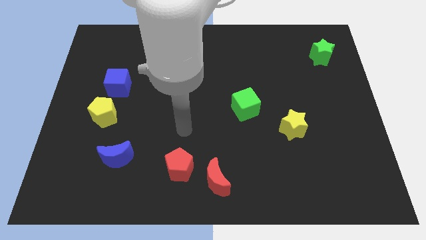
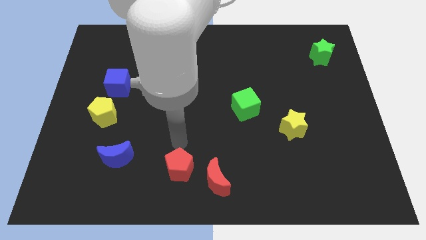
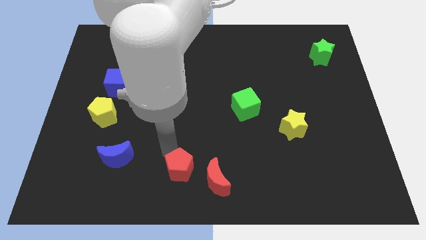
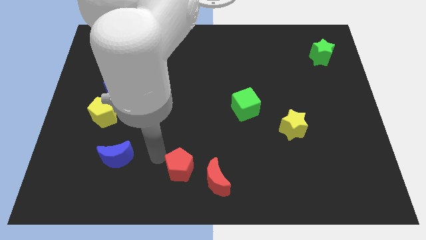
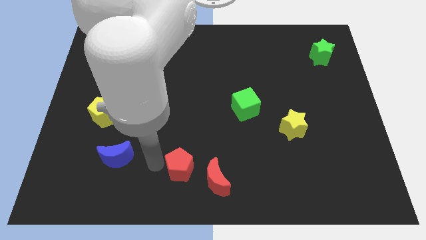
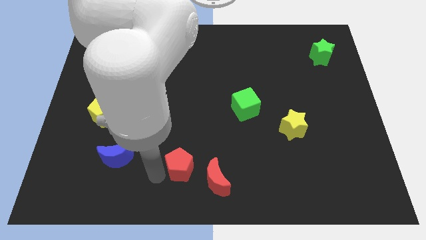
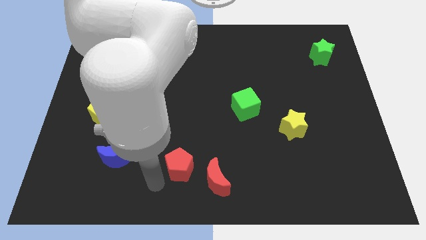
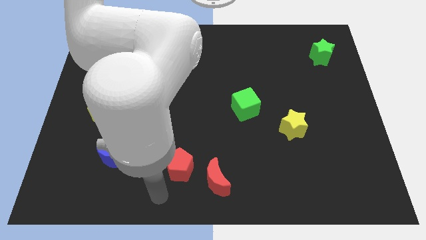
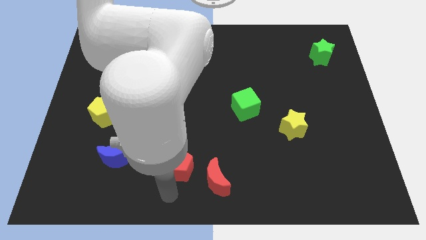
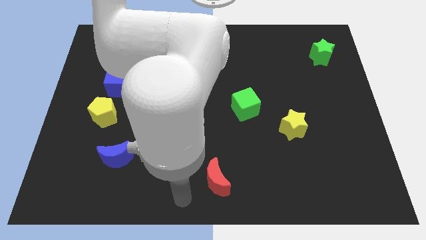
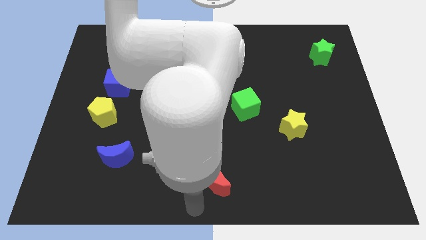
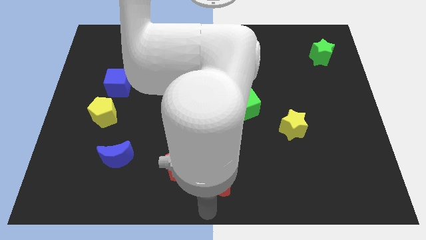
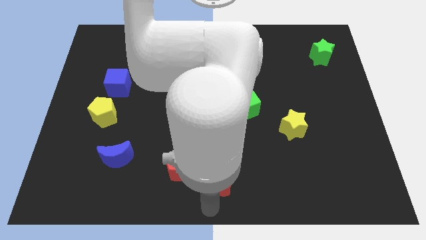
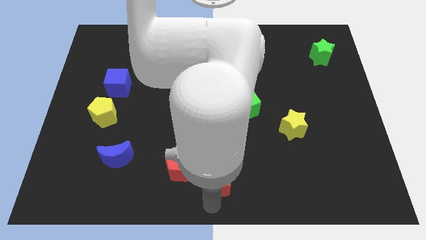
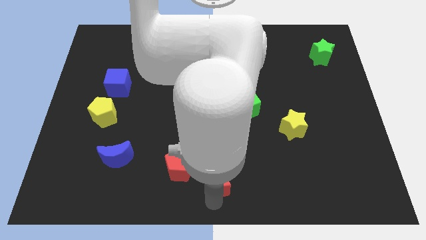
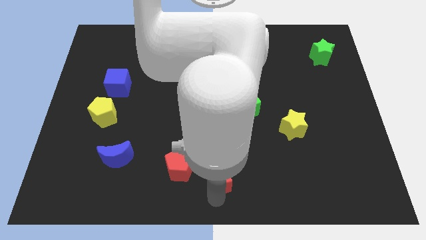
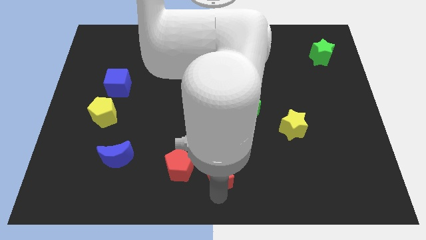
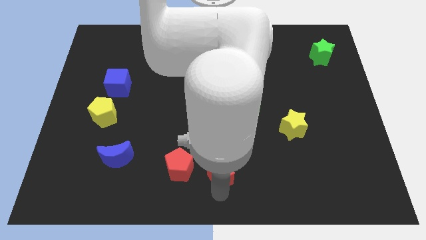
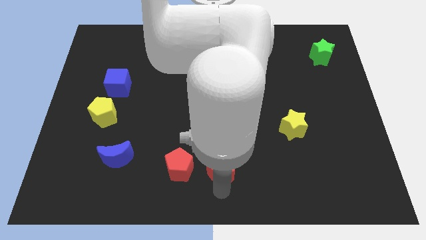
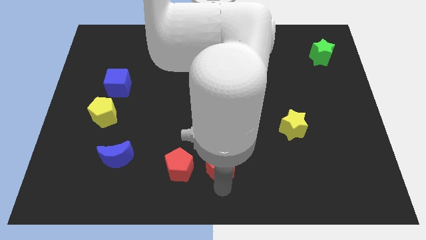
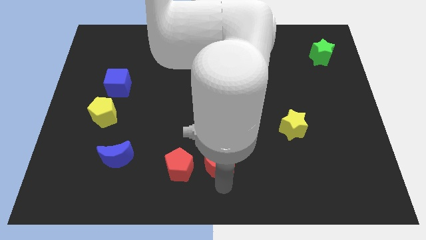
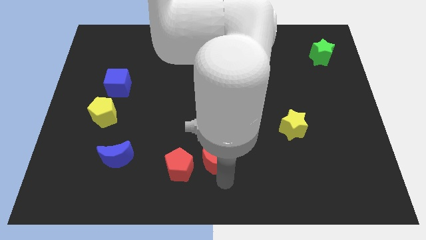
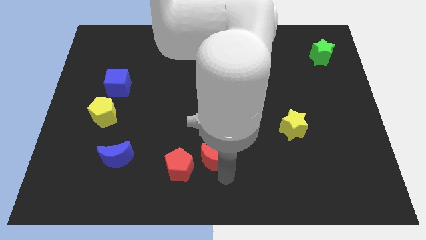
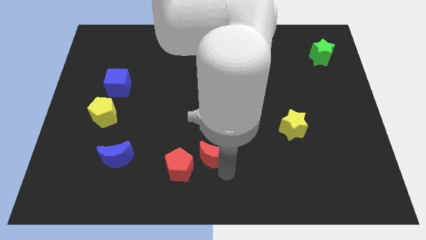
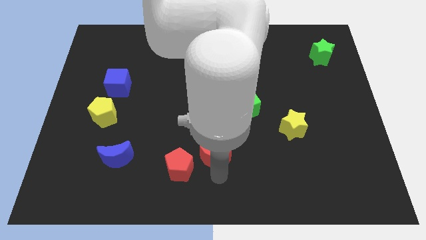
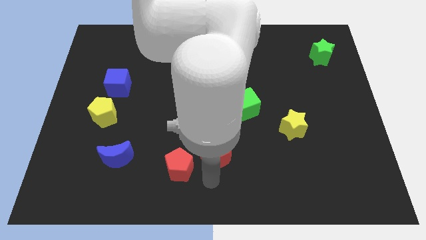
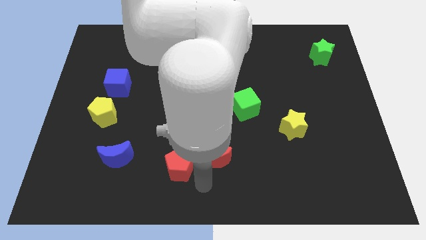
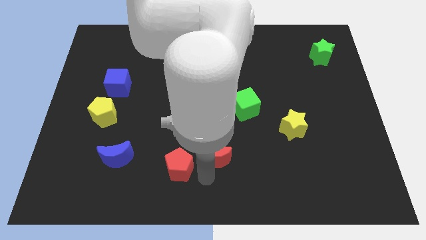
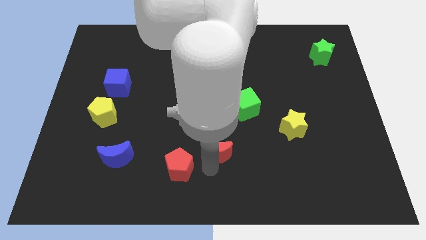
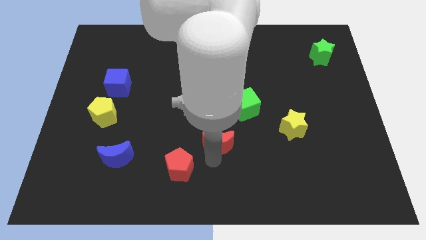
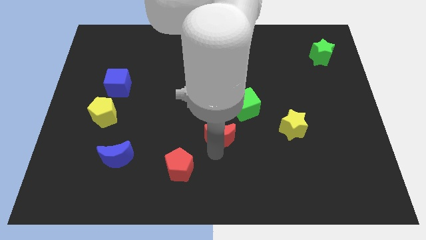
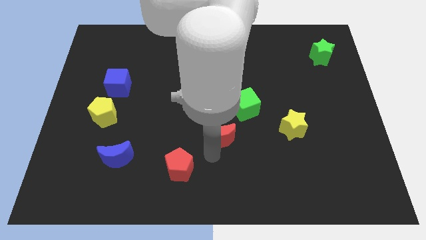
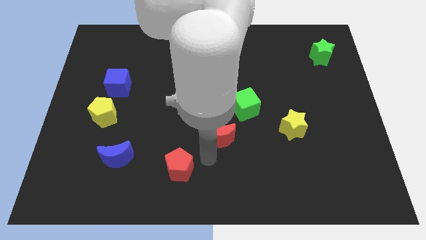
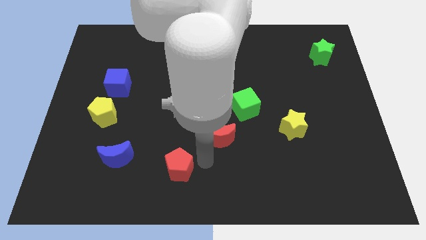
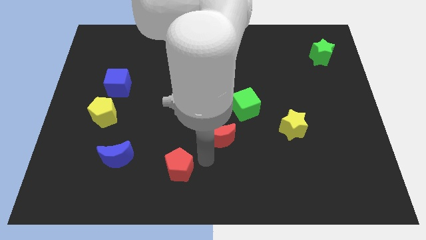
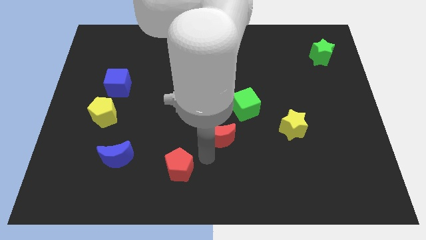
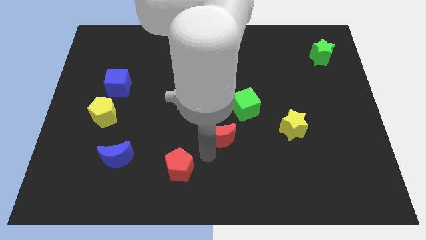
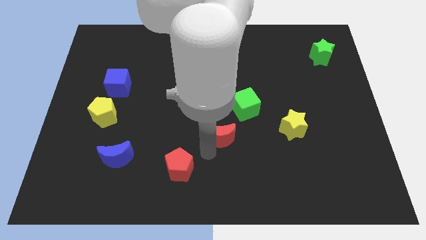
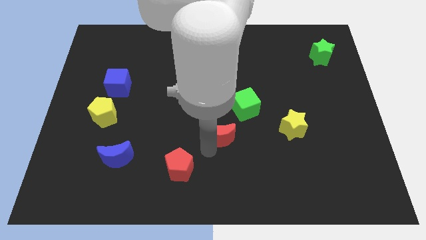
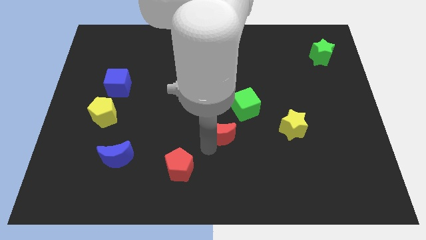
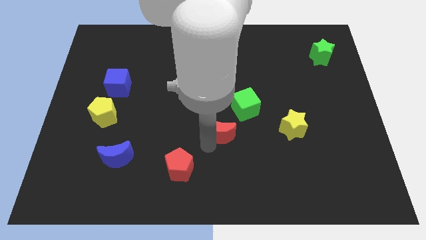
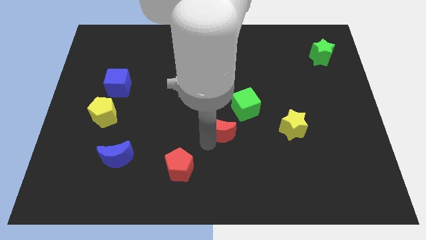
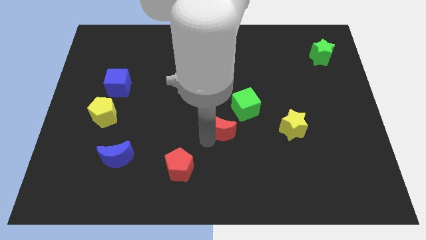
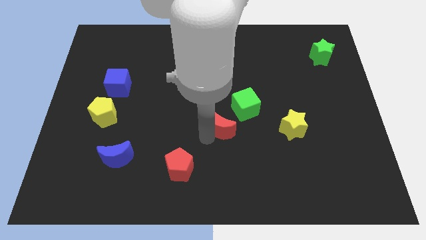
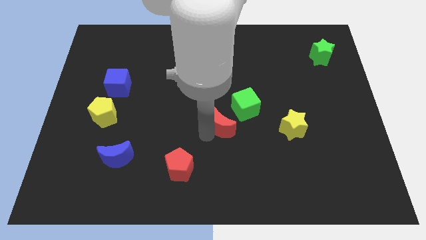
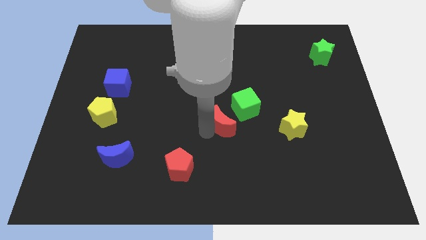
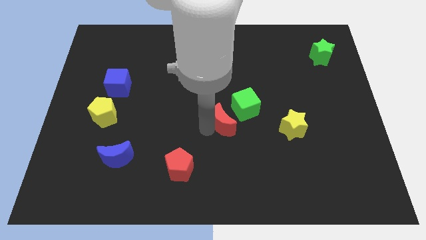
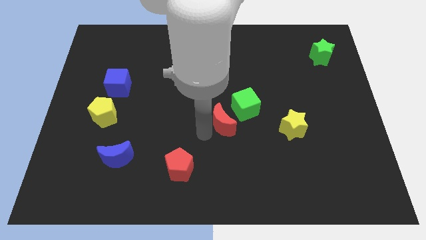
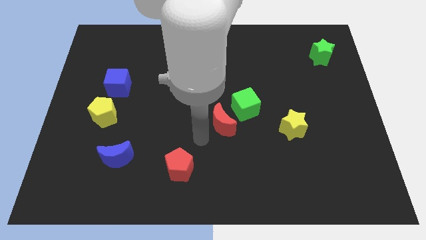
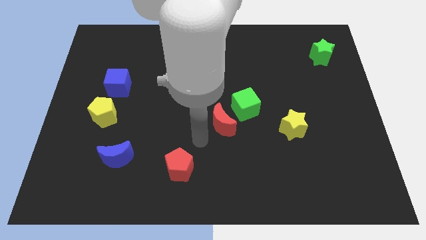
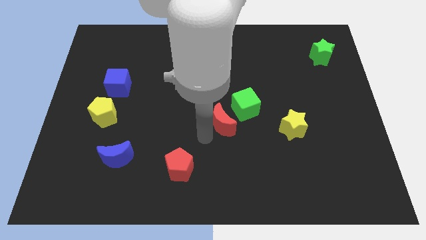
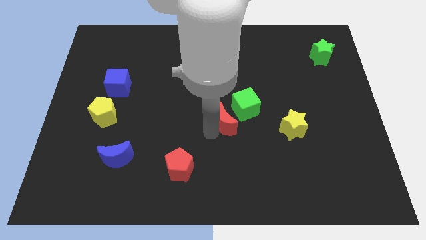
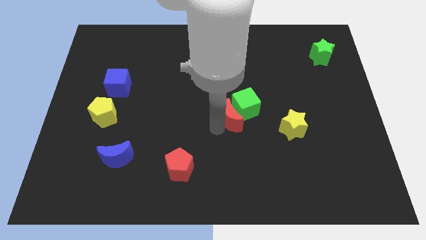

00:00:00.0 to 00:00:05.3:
push the red moon to the green cube

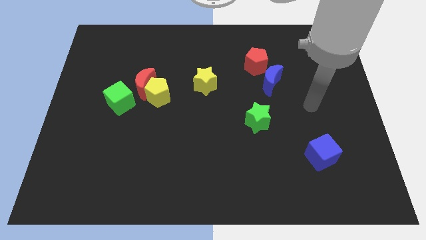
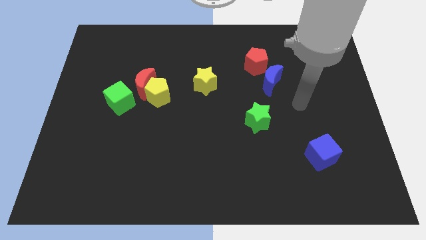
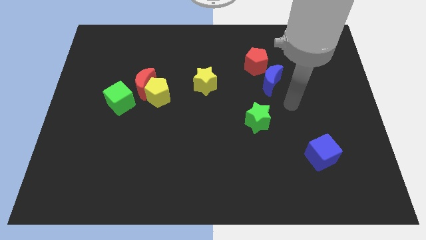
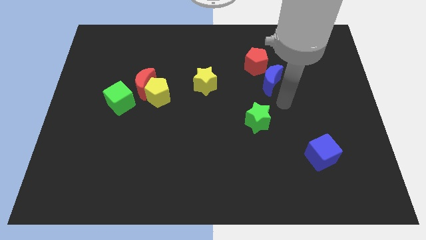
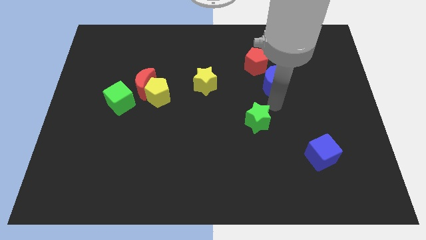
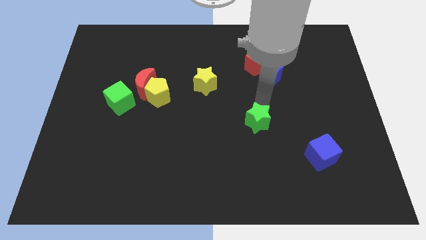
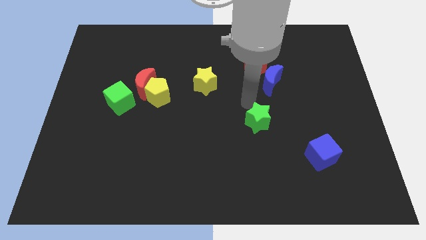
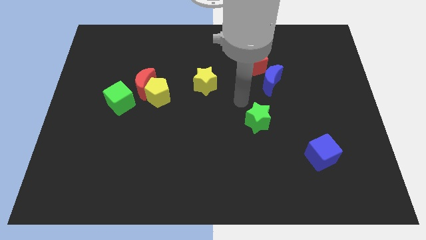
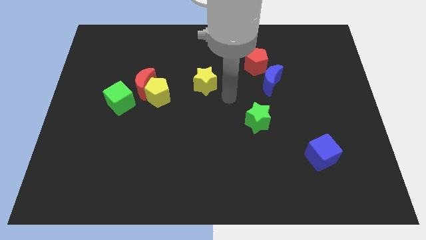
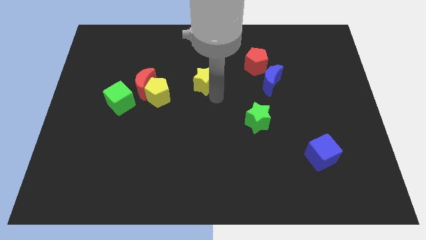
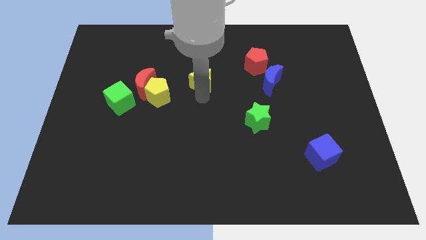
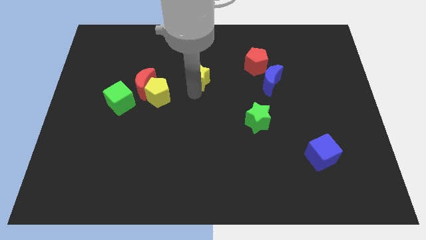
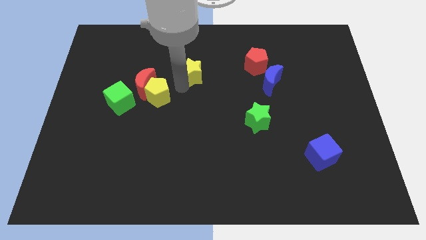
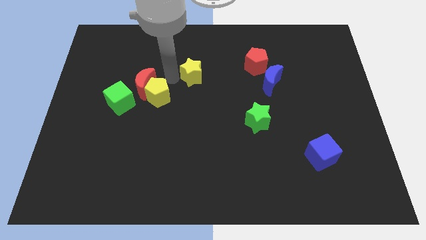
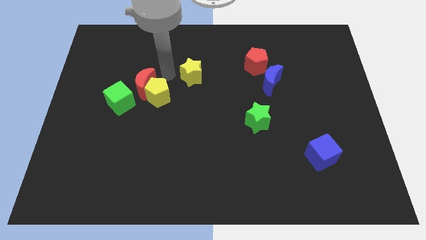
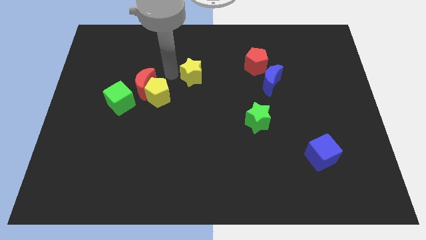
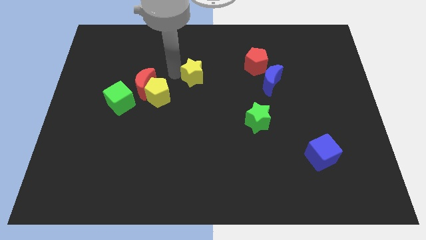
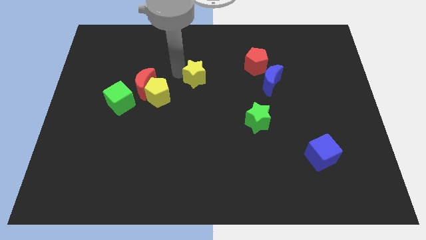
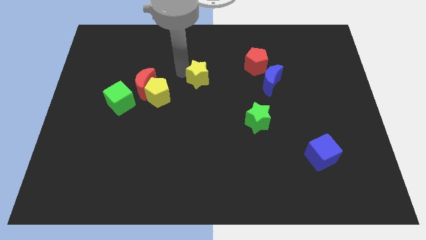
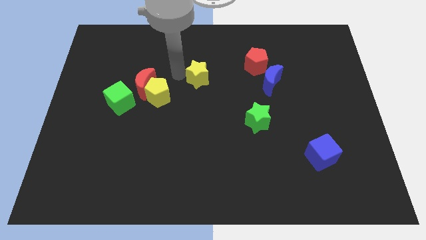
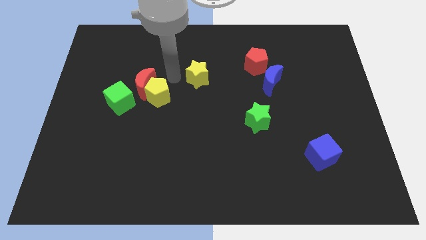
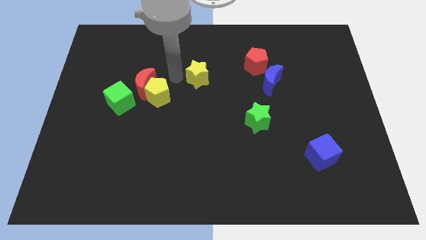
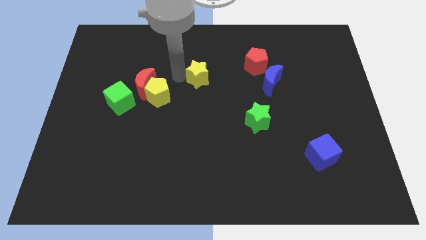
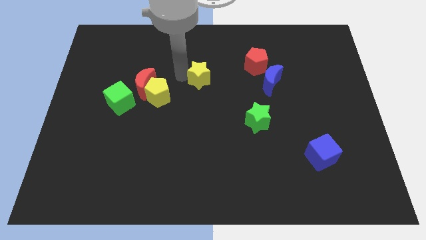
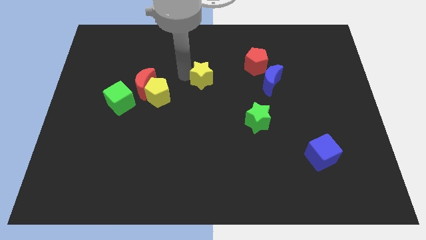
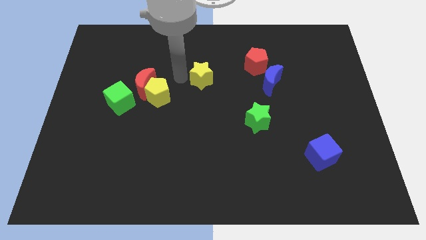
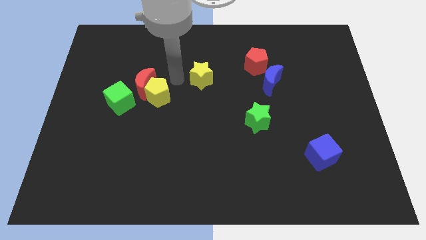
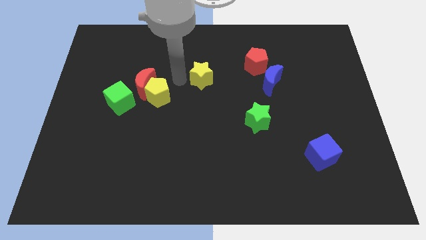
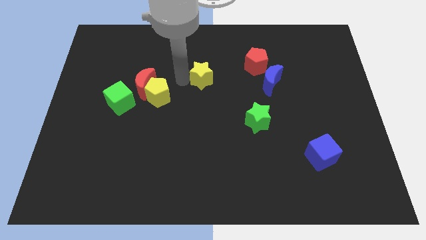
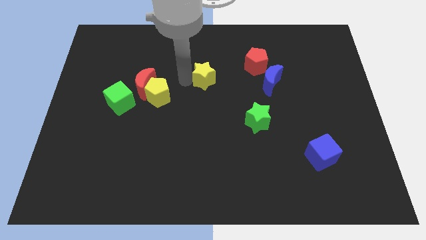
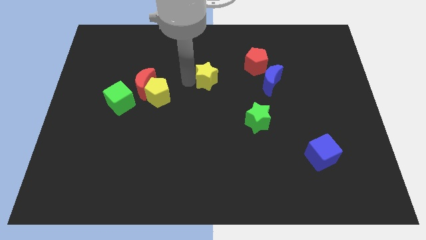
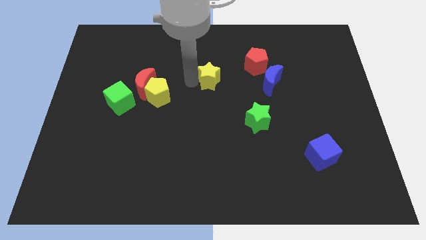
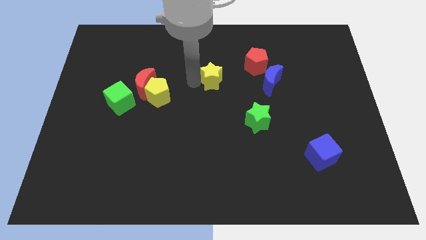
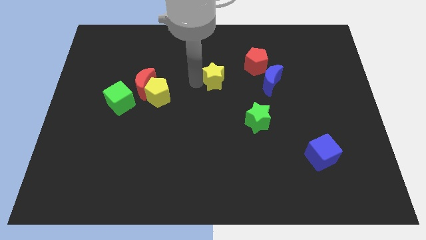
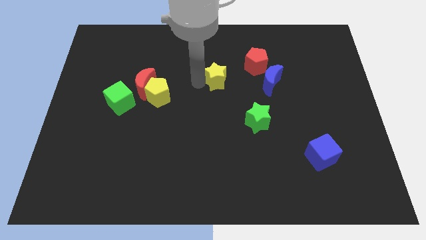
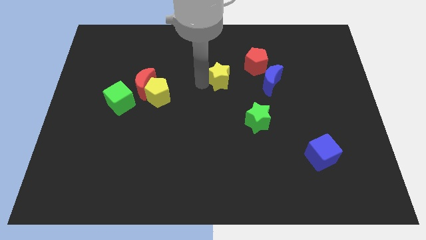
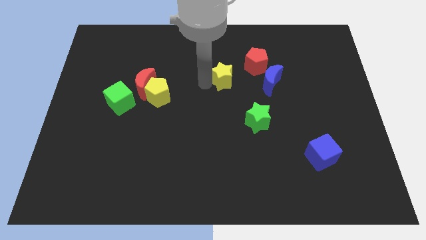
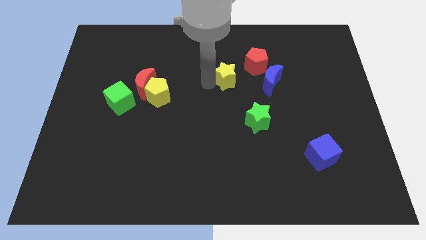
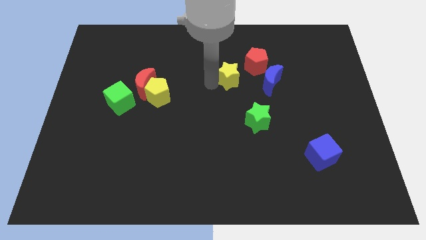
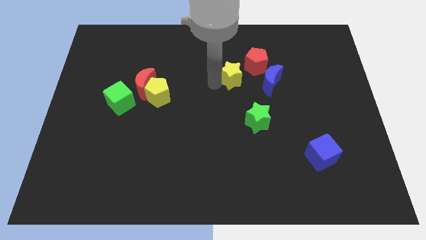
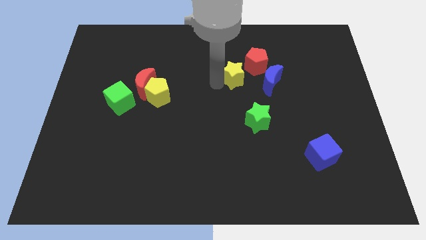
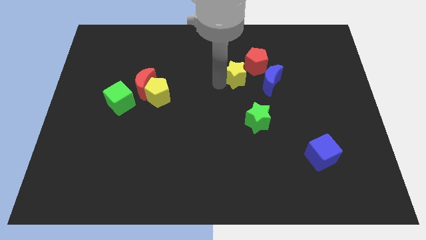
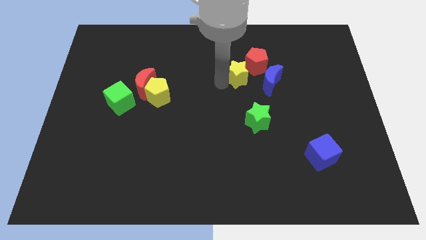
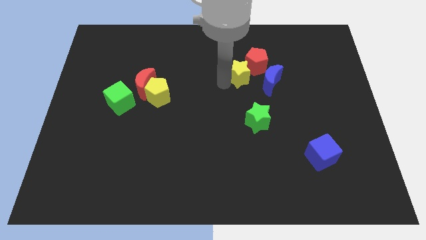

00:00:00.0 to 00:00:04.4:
slide the yellow star towards the red pentagon
